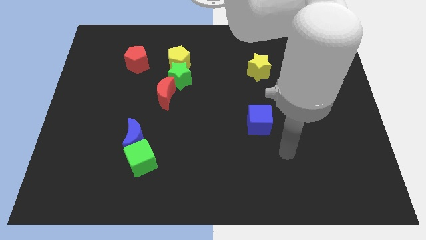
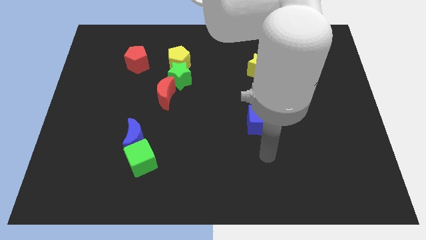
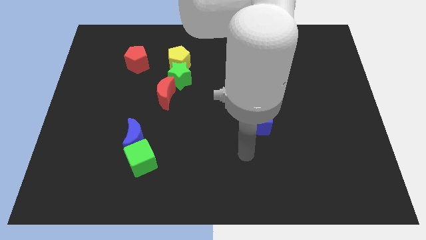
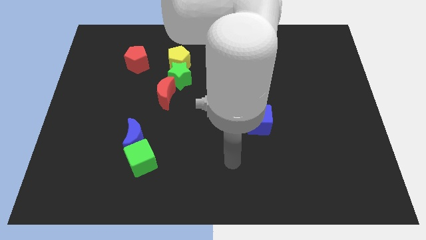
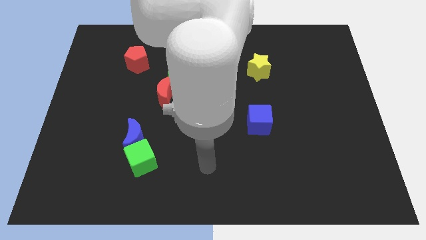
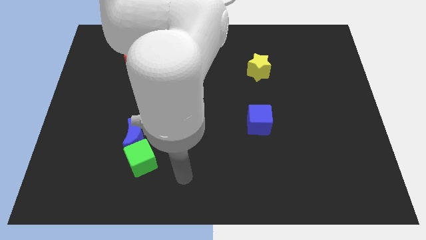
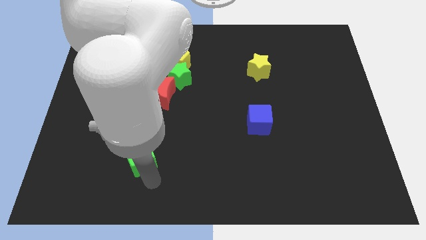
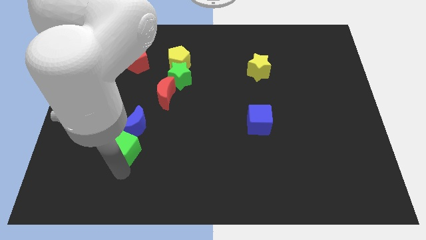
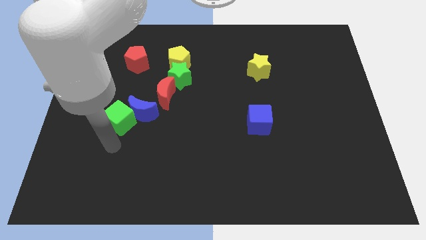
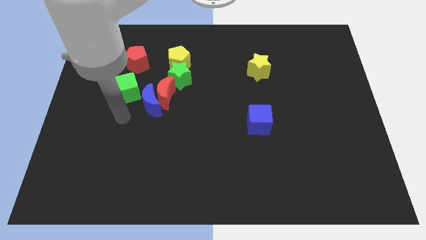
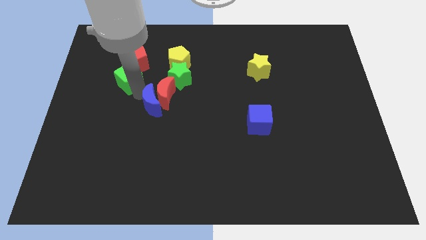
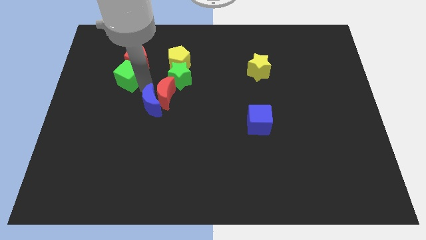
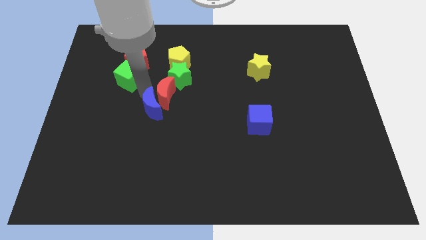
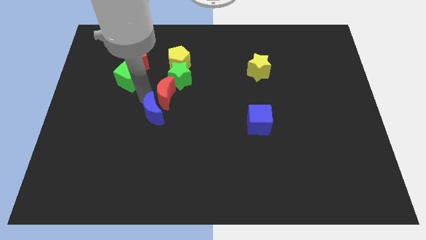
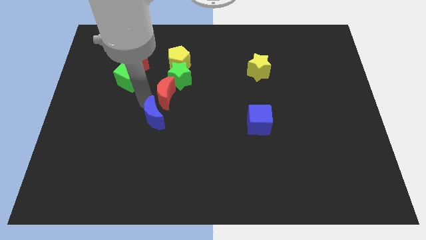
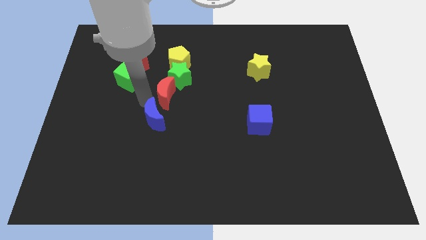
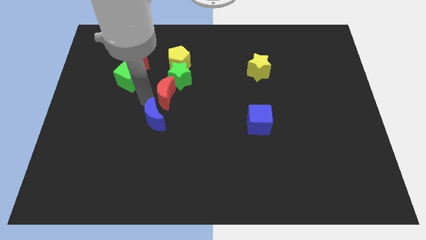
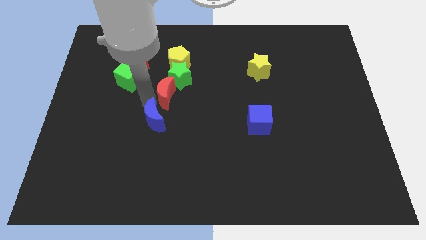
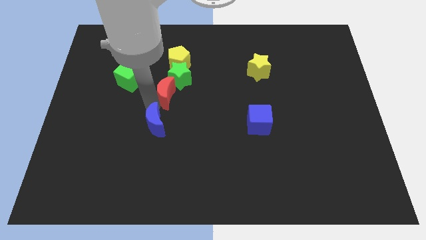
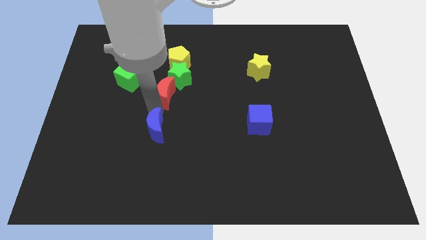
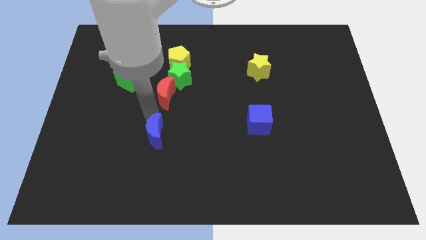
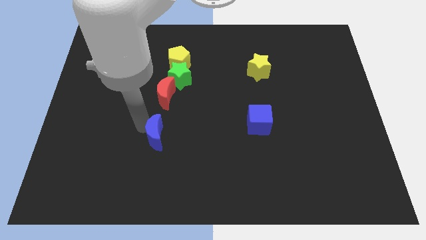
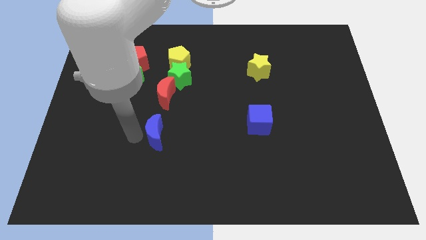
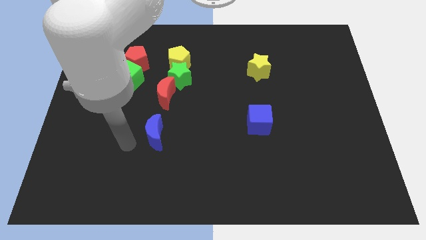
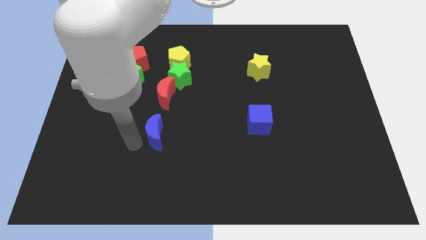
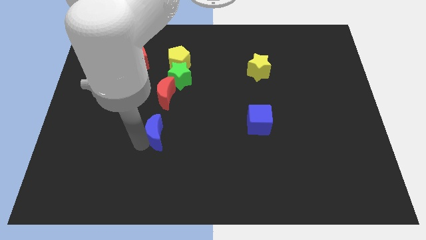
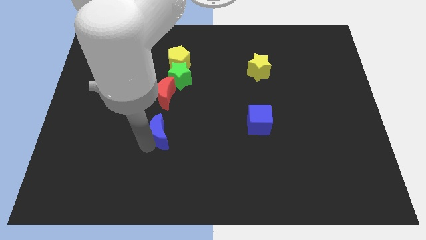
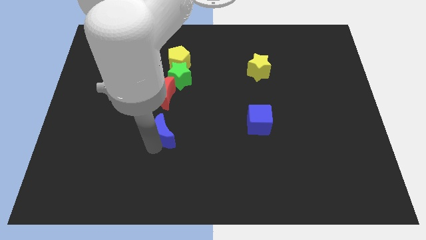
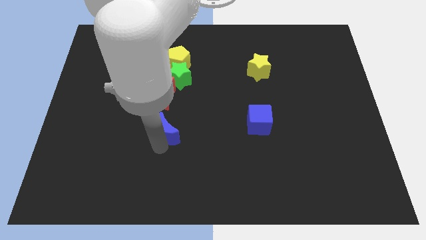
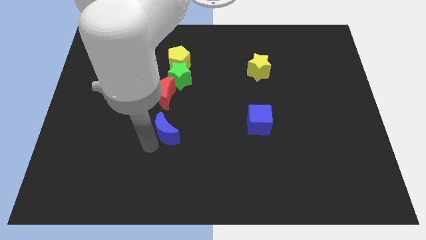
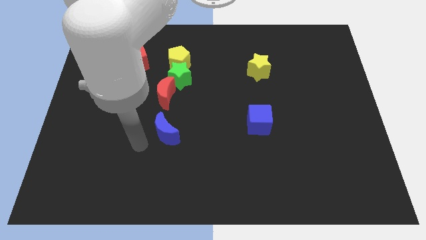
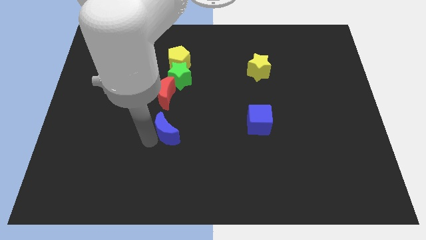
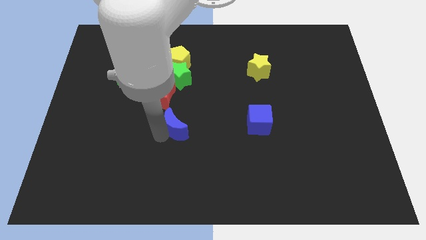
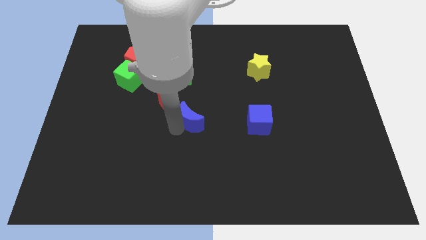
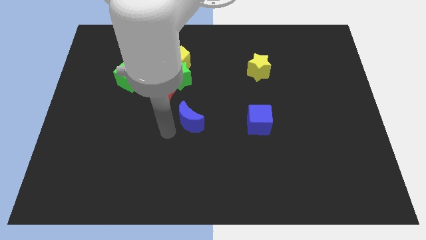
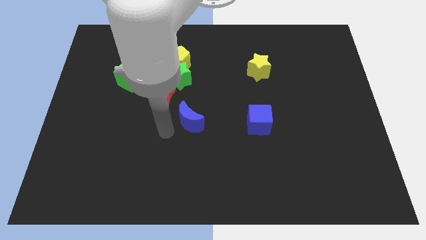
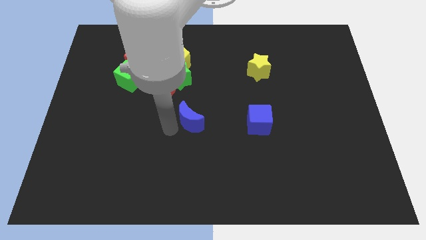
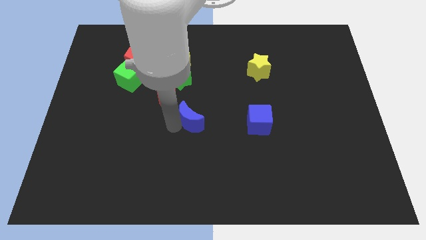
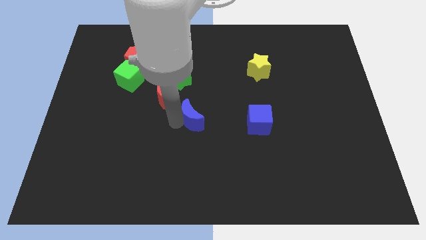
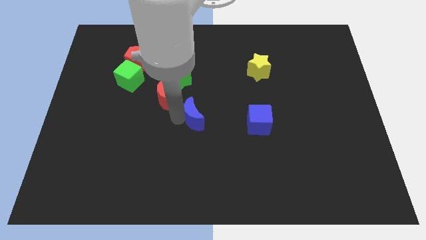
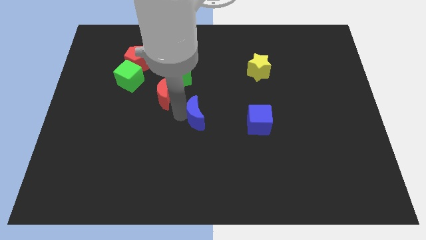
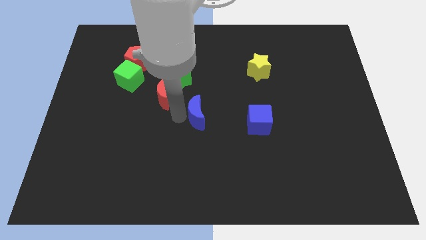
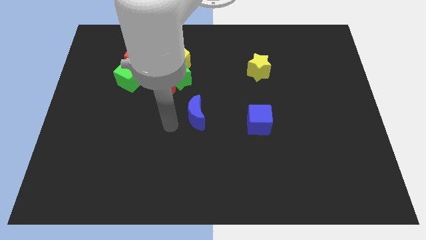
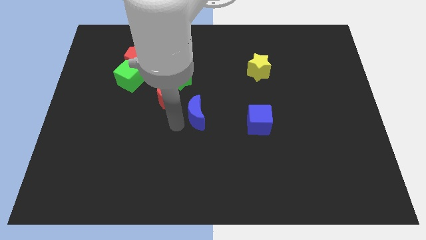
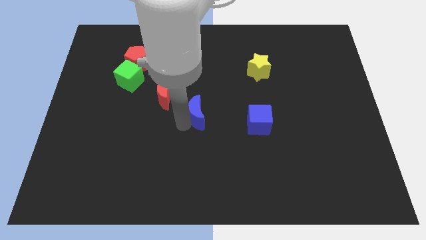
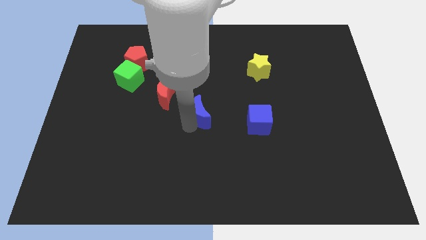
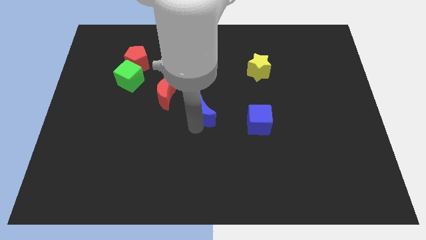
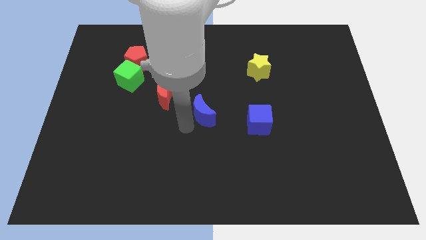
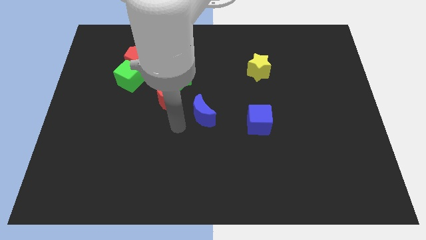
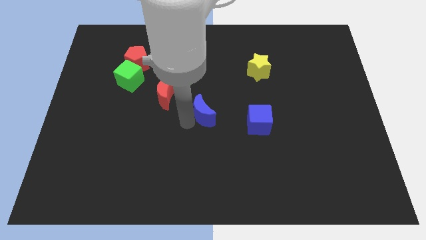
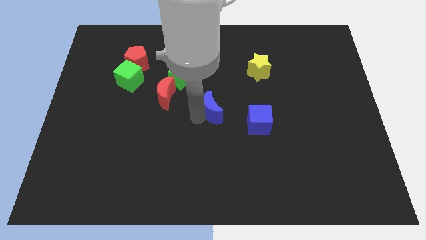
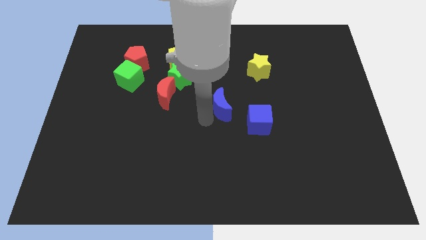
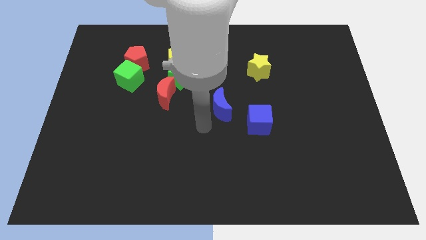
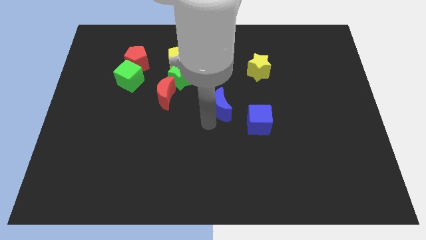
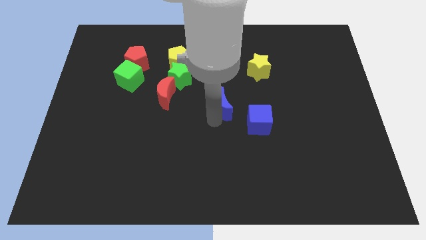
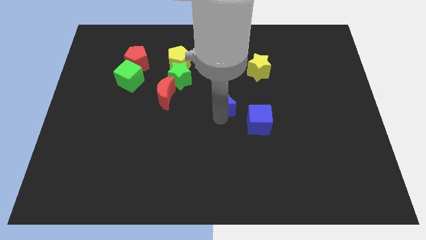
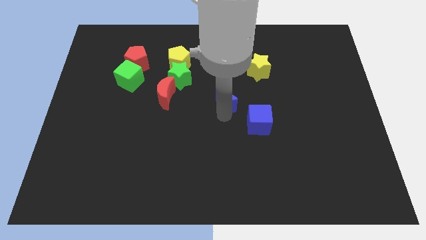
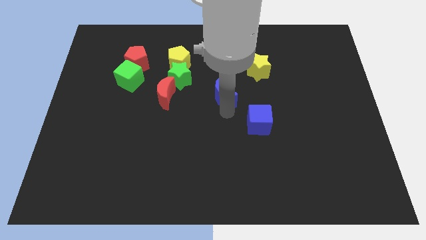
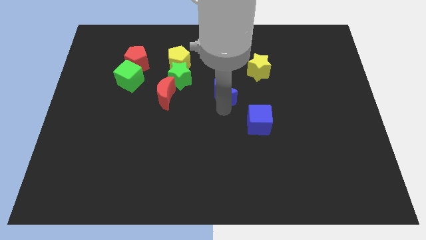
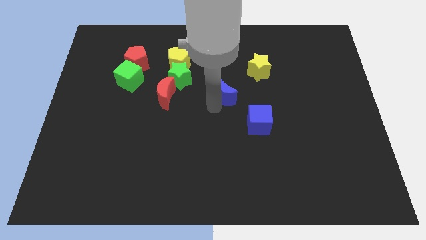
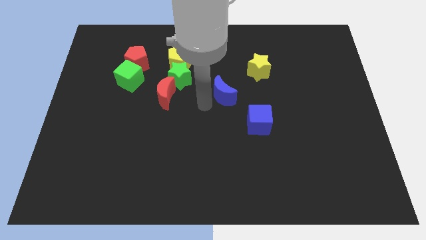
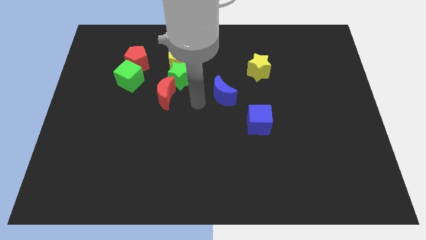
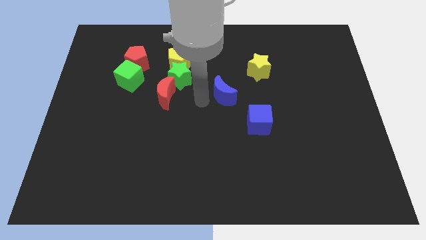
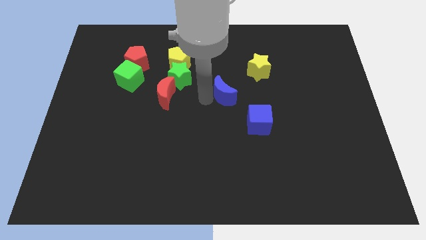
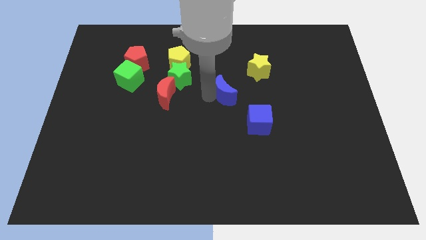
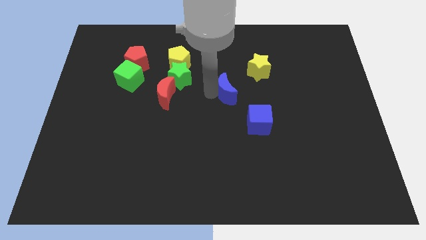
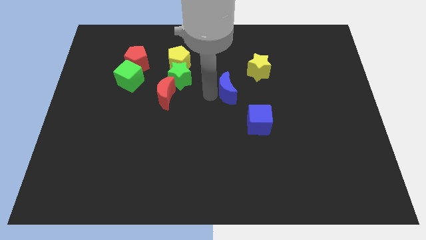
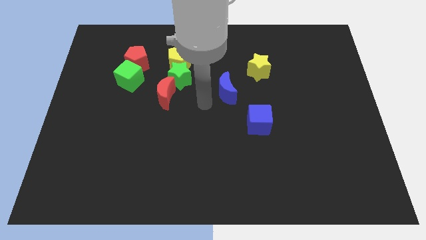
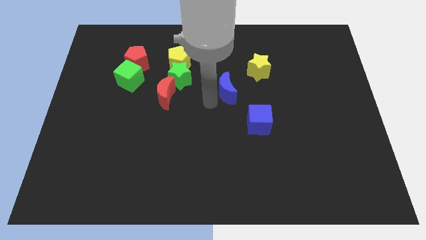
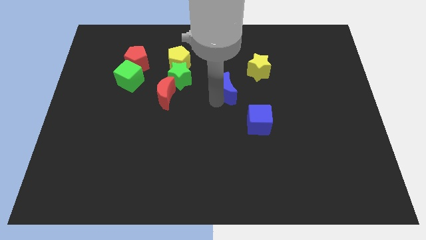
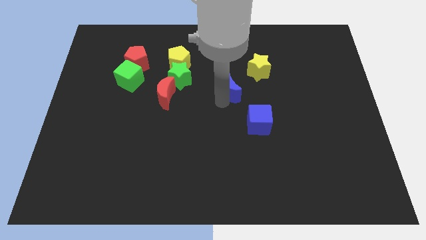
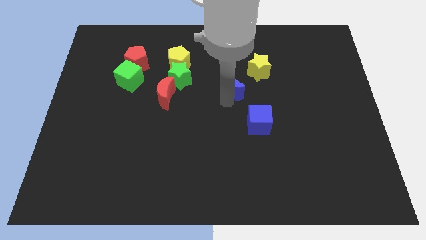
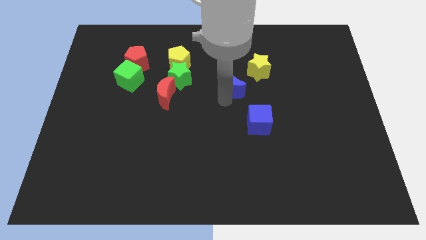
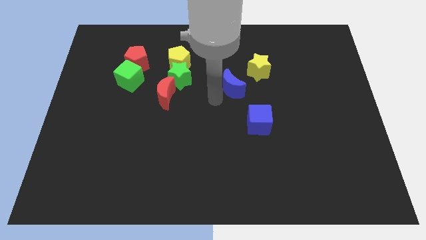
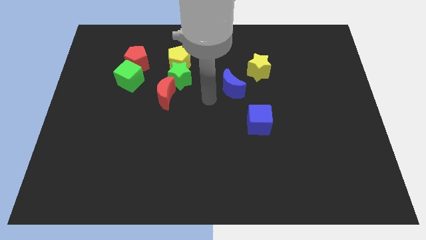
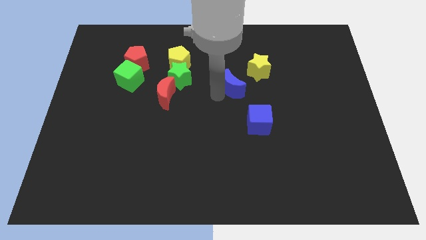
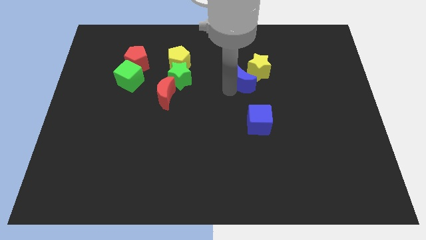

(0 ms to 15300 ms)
move the blue moon next to the yellow star

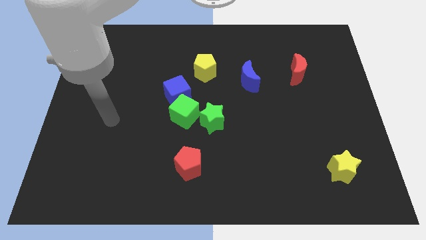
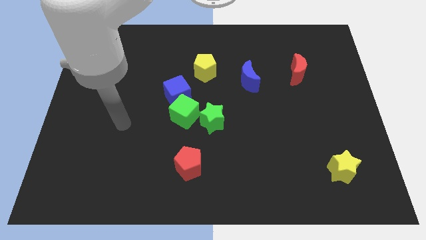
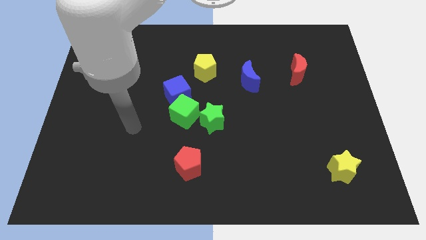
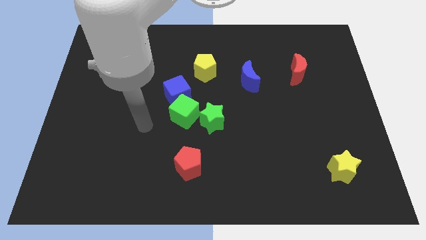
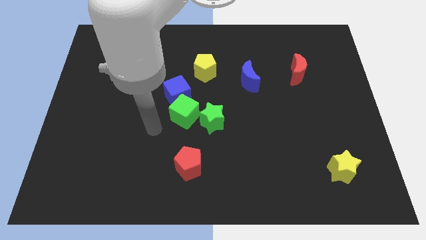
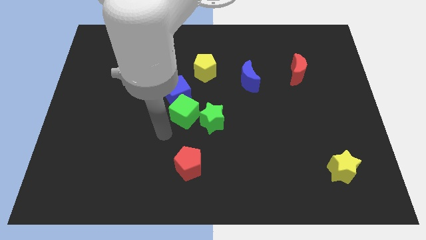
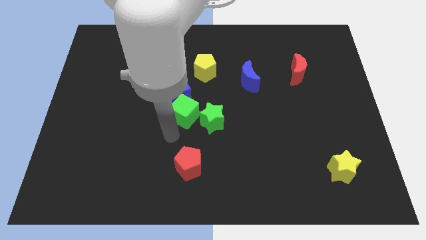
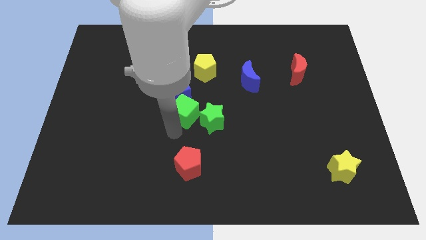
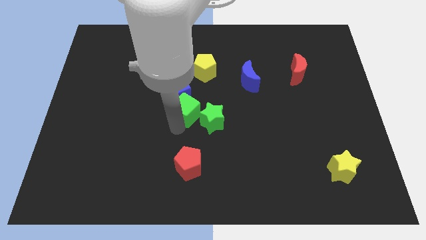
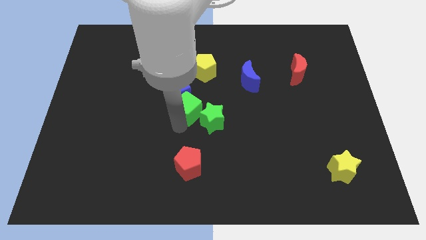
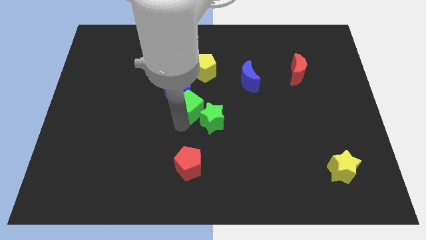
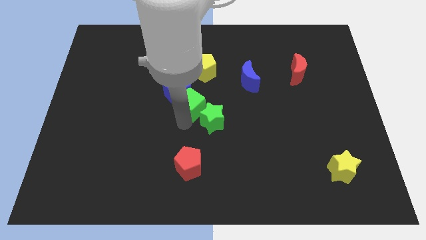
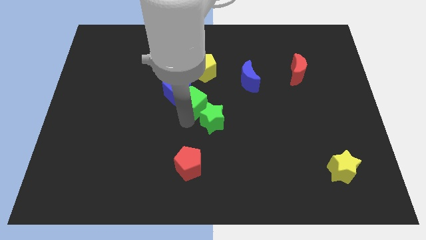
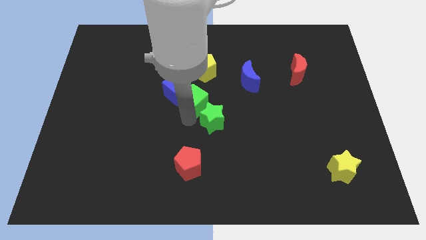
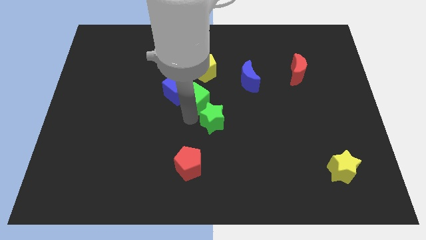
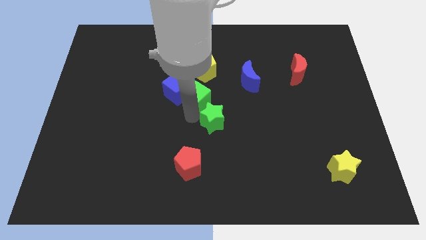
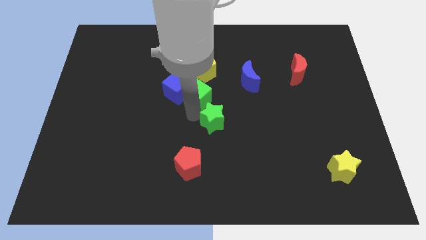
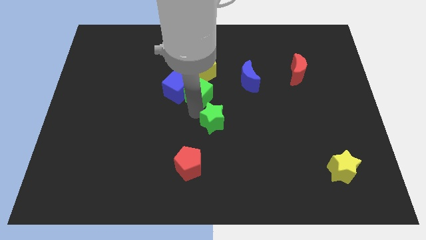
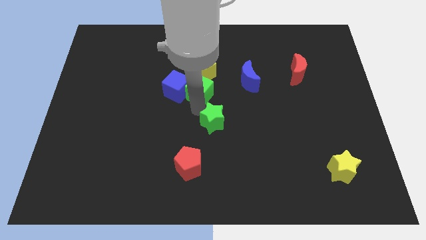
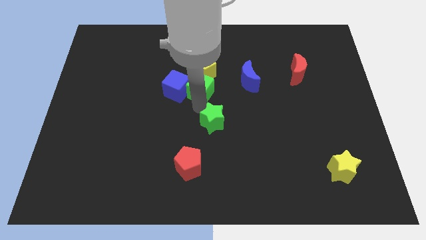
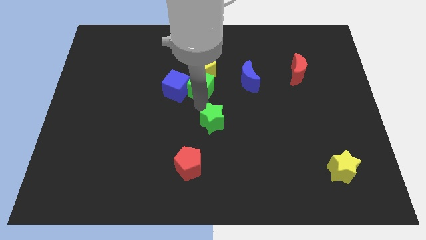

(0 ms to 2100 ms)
push the green cube next to the yellow pentagon
